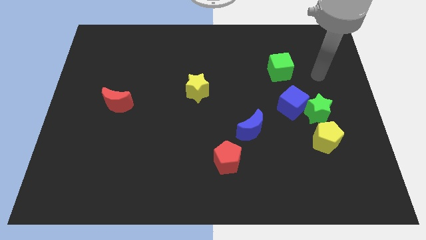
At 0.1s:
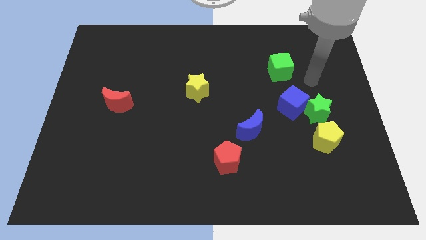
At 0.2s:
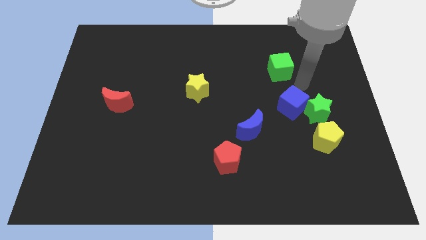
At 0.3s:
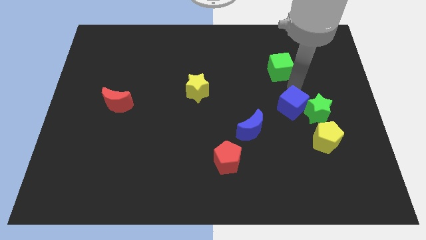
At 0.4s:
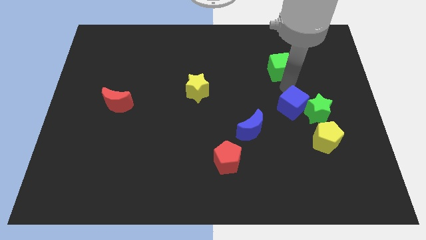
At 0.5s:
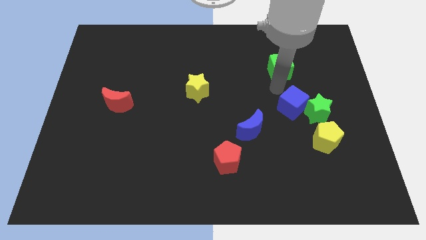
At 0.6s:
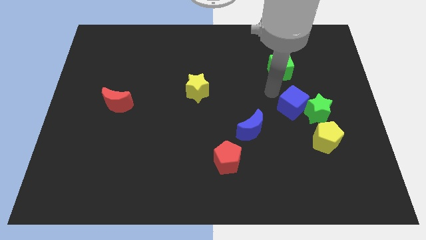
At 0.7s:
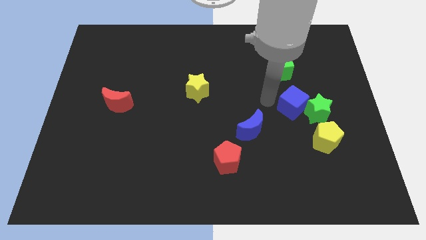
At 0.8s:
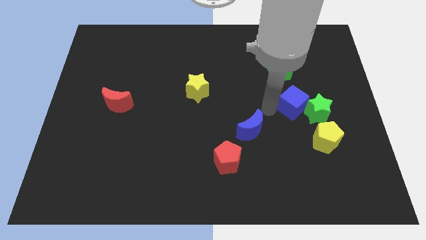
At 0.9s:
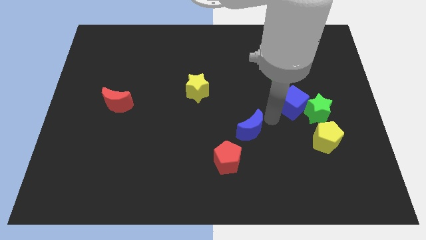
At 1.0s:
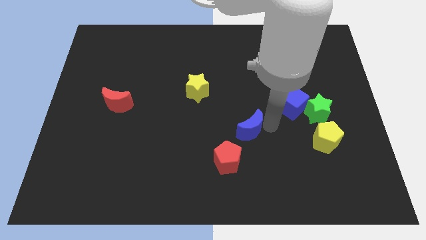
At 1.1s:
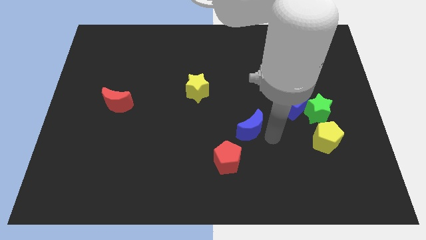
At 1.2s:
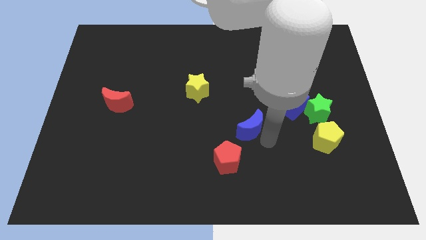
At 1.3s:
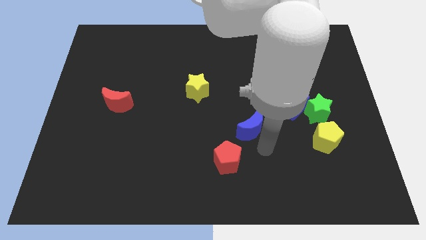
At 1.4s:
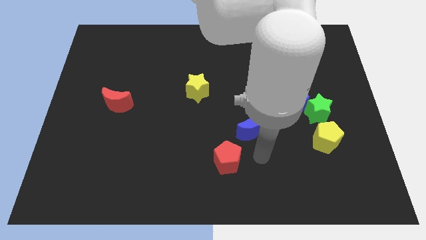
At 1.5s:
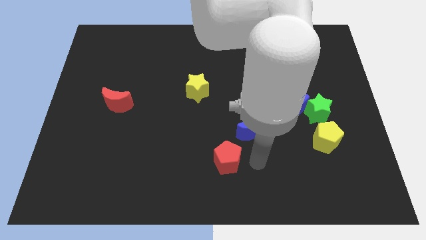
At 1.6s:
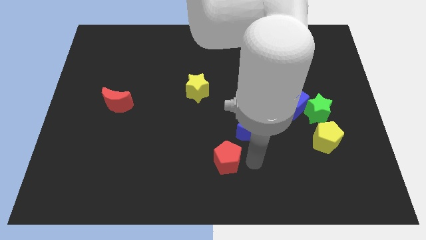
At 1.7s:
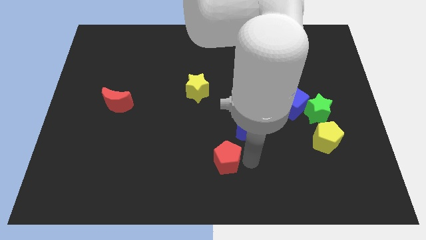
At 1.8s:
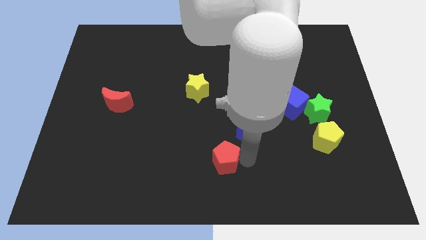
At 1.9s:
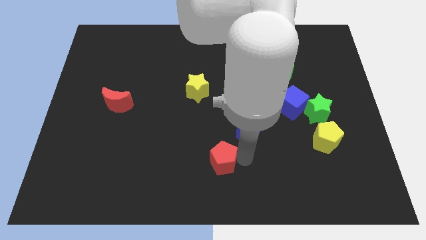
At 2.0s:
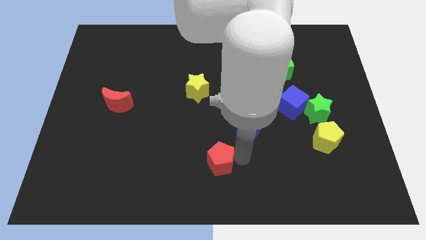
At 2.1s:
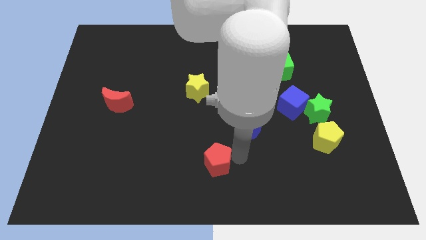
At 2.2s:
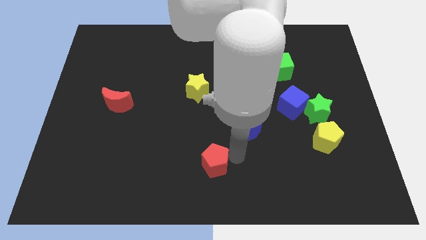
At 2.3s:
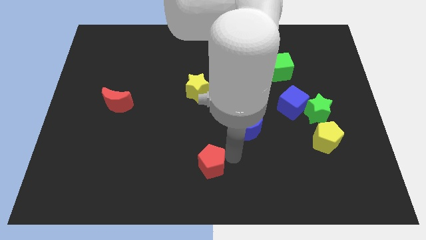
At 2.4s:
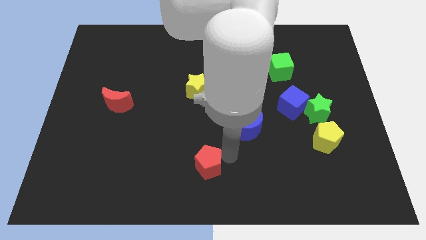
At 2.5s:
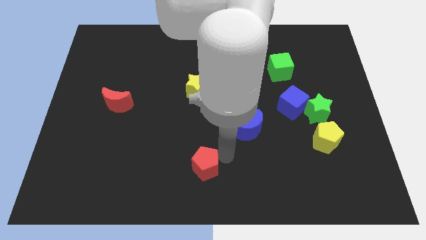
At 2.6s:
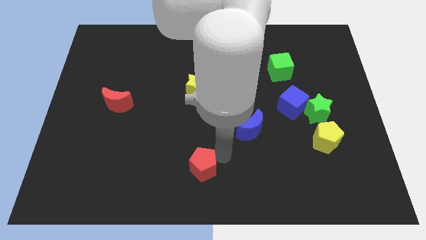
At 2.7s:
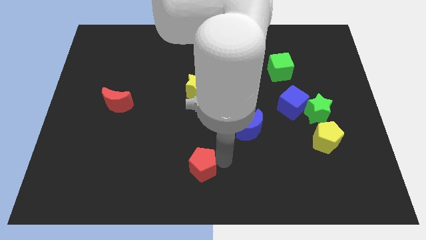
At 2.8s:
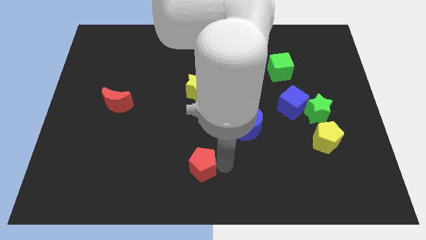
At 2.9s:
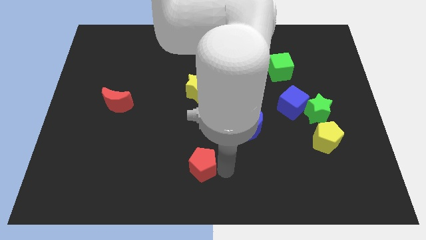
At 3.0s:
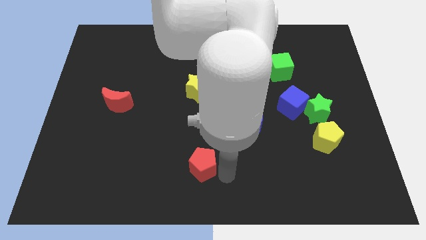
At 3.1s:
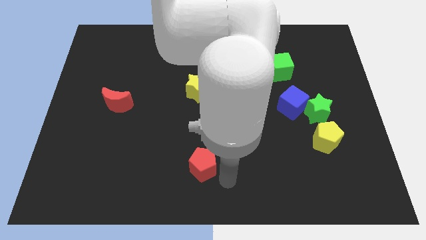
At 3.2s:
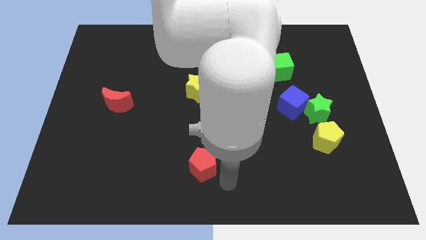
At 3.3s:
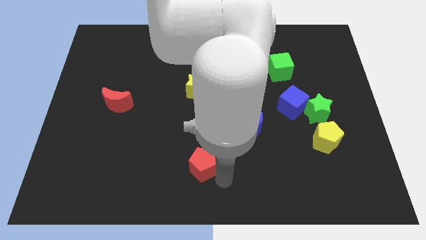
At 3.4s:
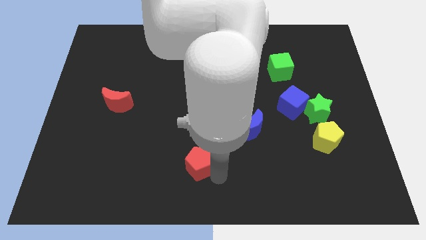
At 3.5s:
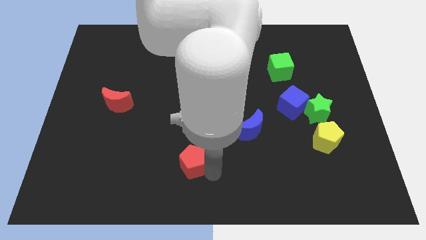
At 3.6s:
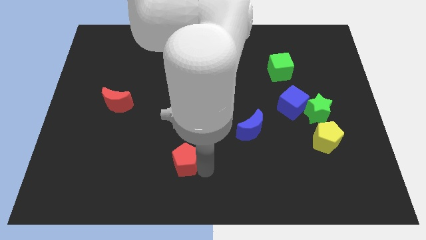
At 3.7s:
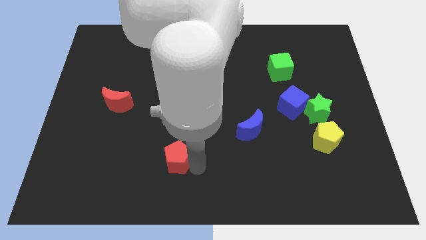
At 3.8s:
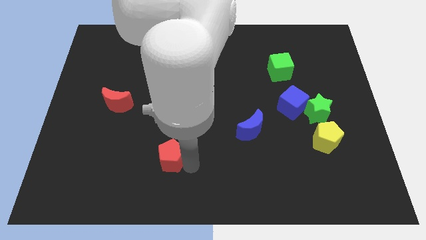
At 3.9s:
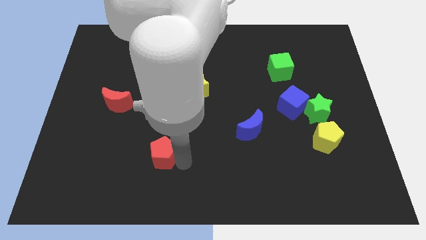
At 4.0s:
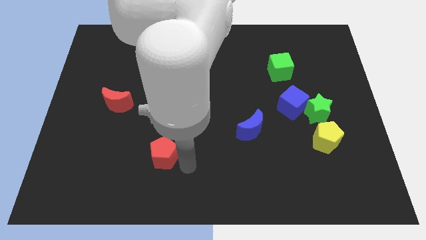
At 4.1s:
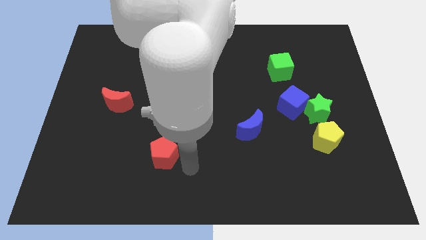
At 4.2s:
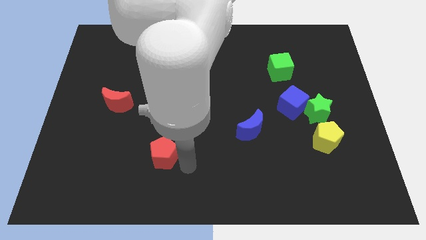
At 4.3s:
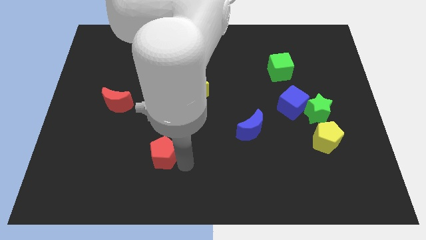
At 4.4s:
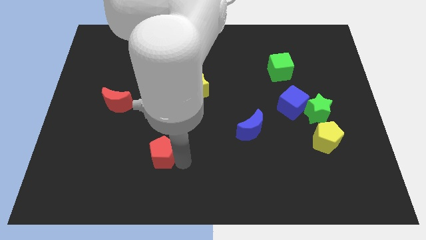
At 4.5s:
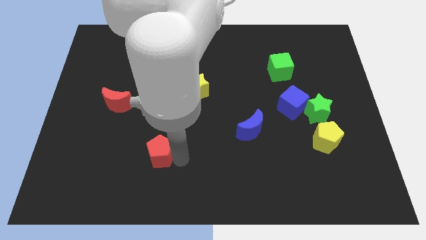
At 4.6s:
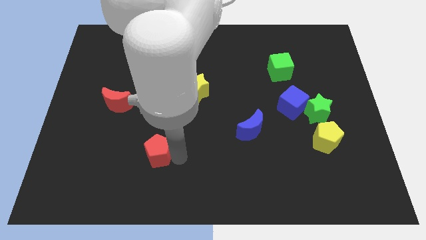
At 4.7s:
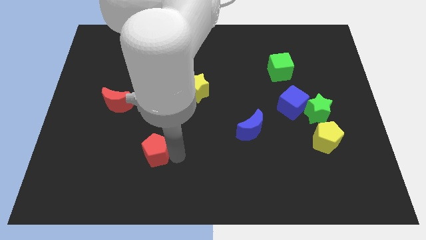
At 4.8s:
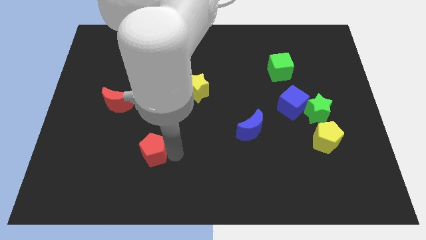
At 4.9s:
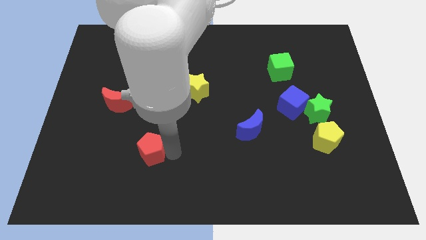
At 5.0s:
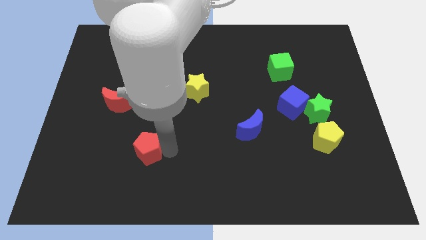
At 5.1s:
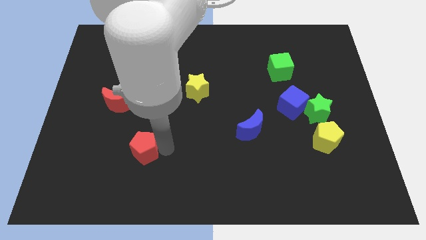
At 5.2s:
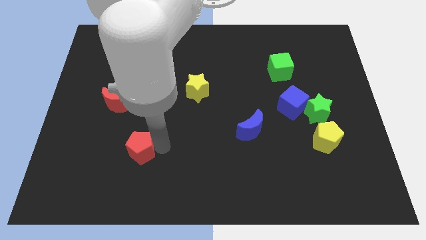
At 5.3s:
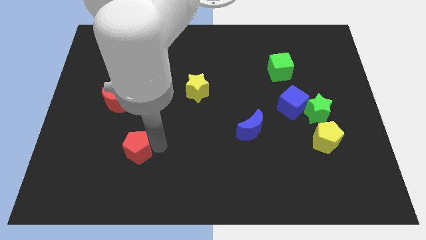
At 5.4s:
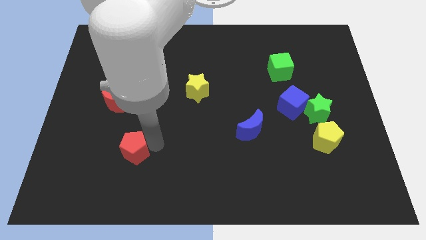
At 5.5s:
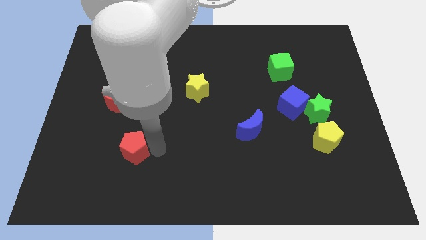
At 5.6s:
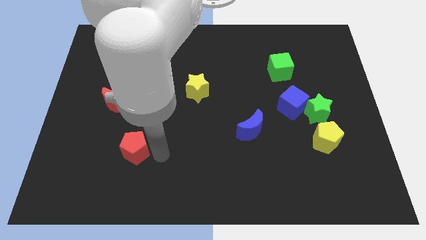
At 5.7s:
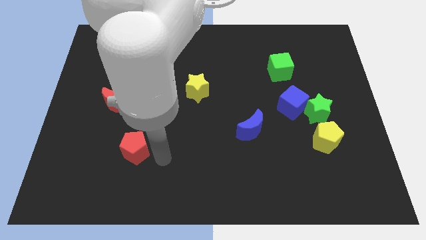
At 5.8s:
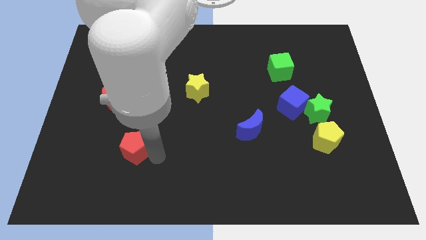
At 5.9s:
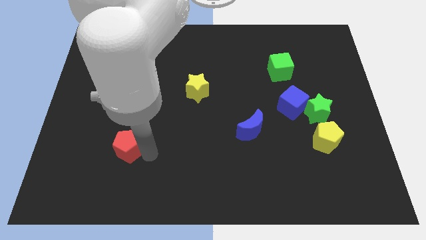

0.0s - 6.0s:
push the red pentagon to the bottom side of the red moon

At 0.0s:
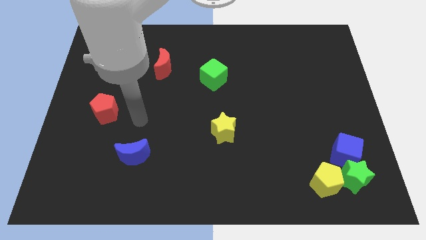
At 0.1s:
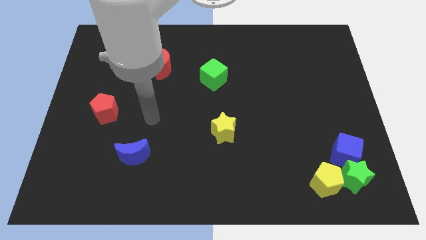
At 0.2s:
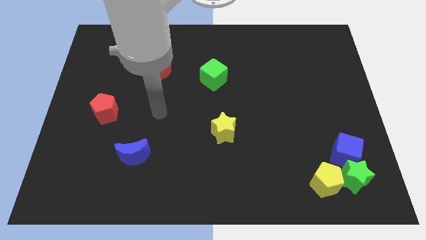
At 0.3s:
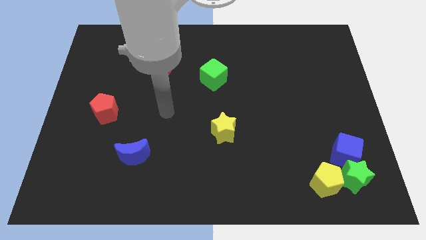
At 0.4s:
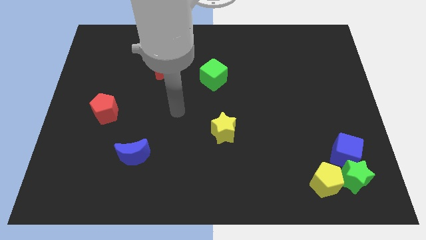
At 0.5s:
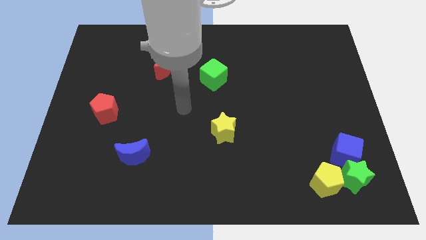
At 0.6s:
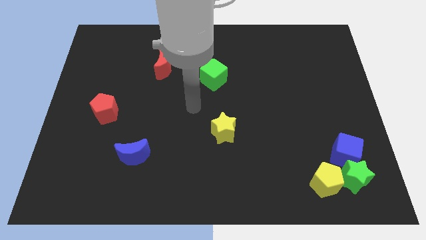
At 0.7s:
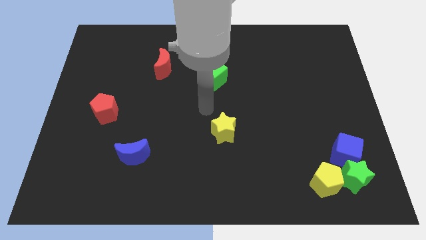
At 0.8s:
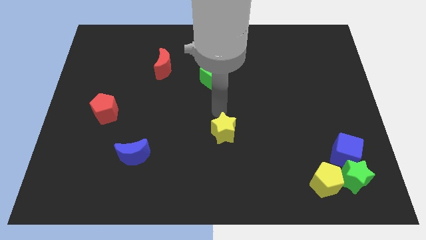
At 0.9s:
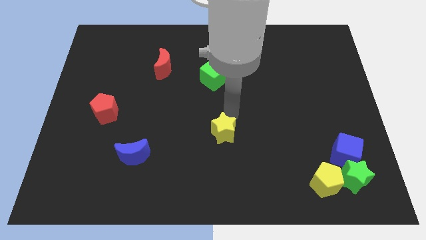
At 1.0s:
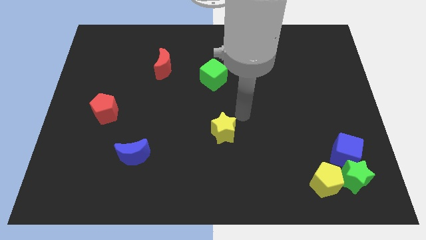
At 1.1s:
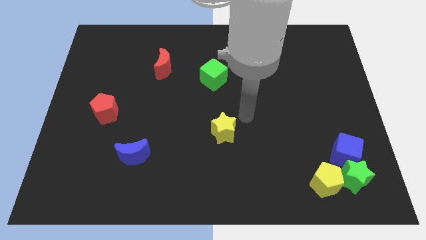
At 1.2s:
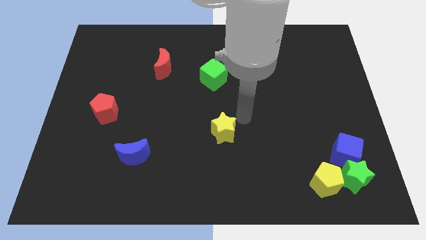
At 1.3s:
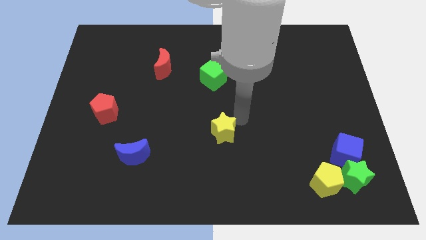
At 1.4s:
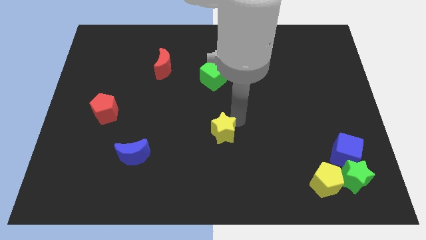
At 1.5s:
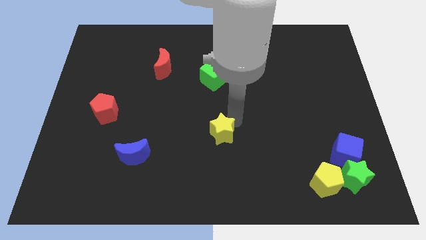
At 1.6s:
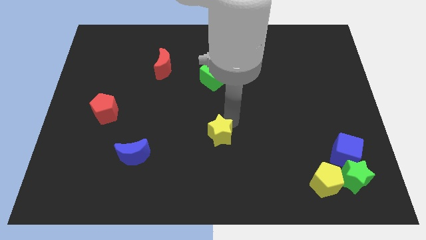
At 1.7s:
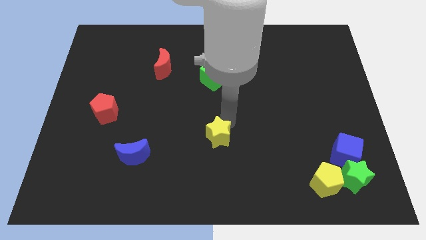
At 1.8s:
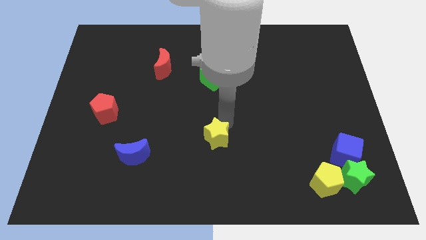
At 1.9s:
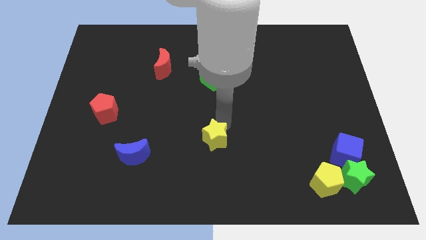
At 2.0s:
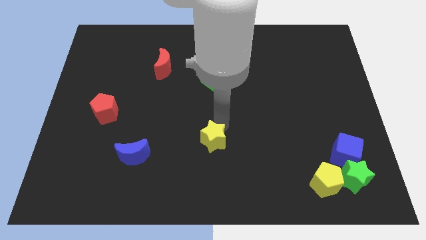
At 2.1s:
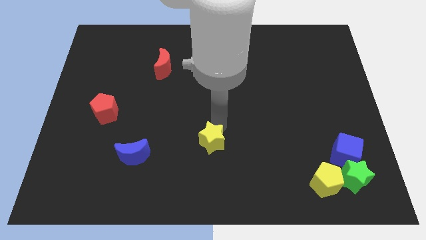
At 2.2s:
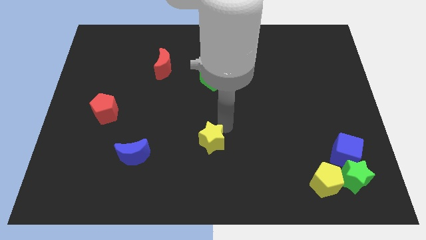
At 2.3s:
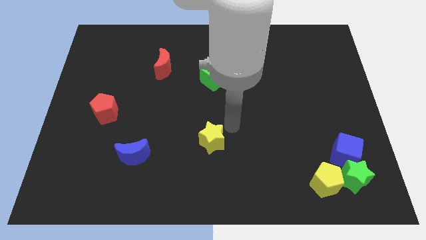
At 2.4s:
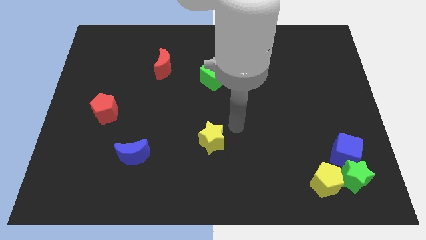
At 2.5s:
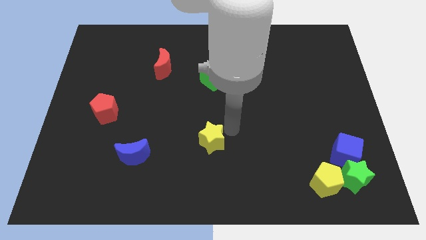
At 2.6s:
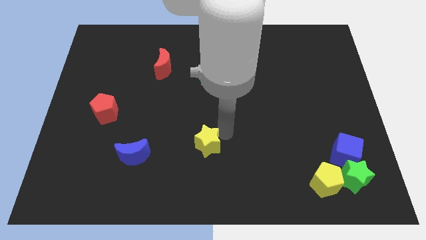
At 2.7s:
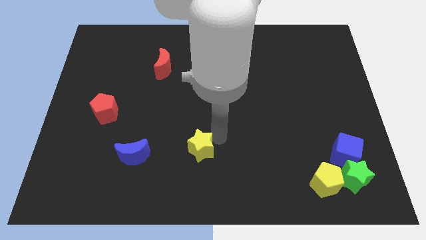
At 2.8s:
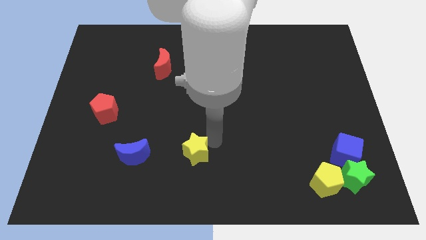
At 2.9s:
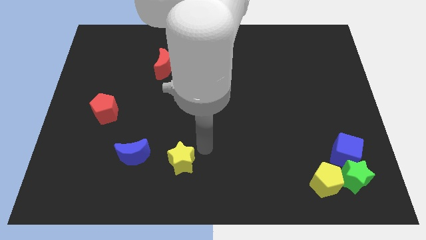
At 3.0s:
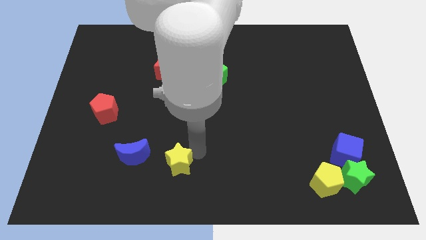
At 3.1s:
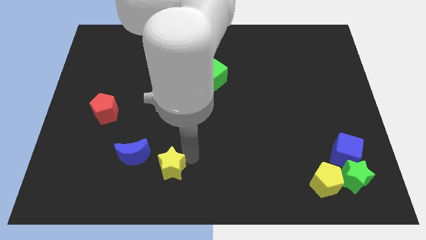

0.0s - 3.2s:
move the yellow star diagonally down and to the right of the blue moon
